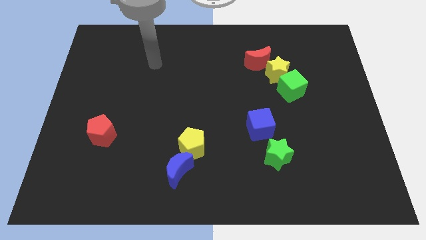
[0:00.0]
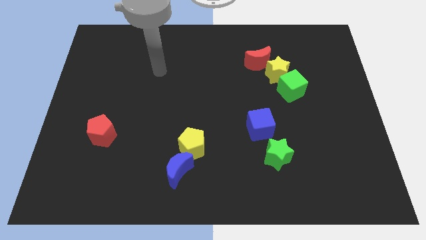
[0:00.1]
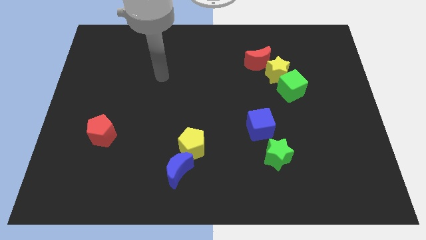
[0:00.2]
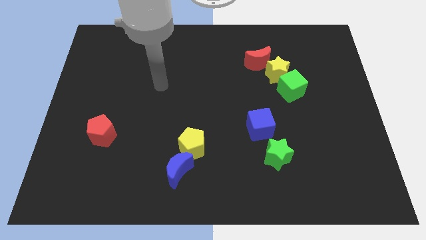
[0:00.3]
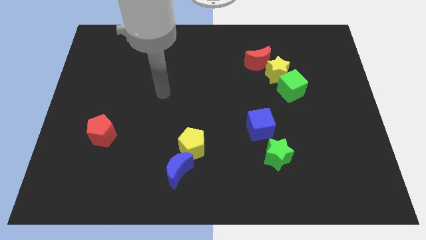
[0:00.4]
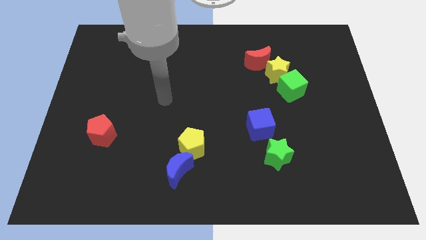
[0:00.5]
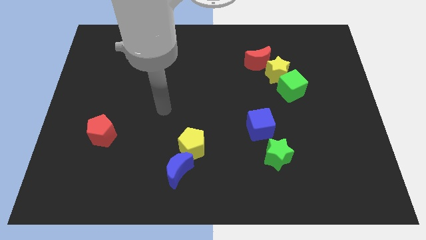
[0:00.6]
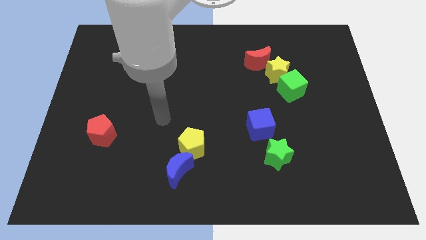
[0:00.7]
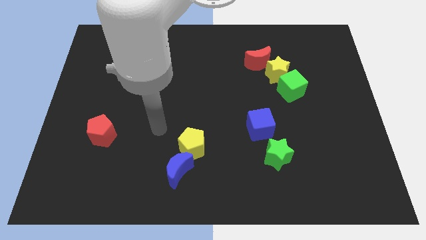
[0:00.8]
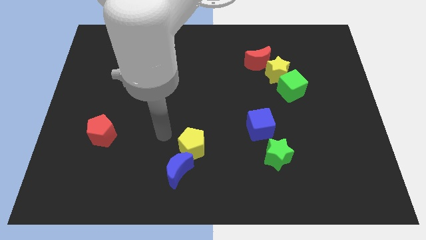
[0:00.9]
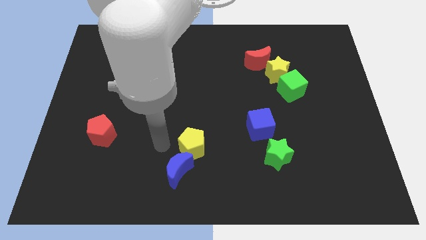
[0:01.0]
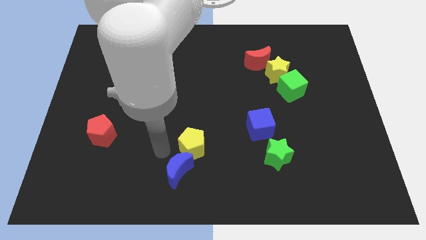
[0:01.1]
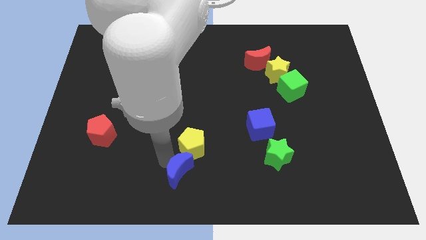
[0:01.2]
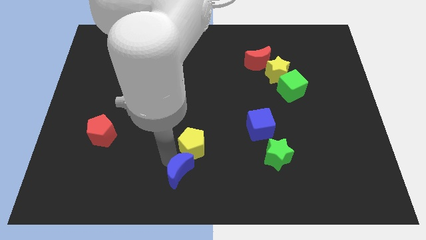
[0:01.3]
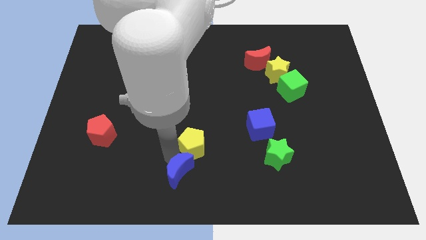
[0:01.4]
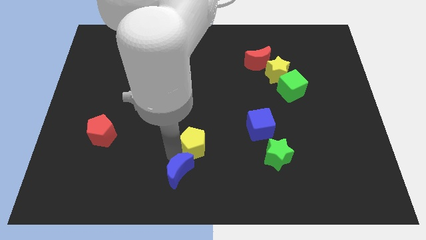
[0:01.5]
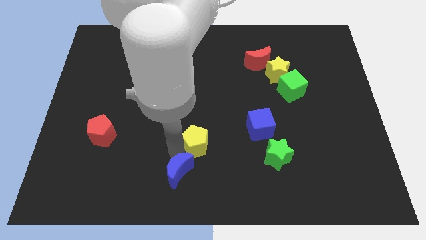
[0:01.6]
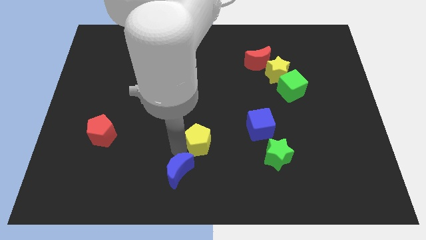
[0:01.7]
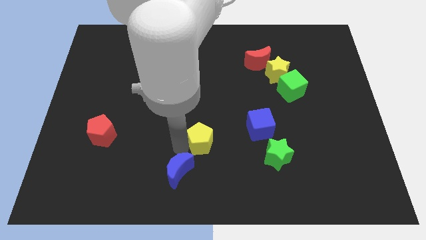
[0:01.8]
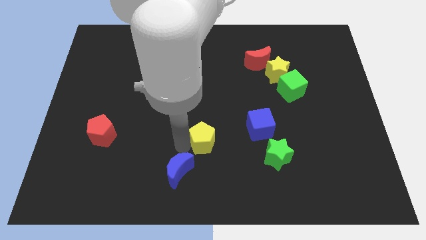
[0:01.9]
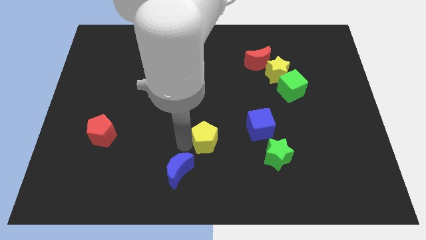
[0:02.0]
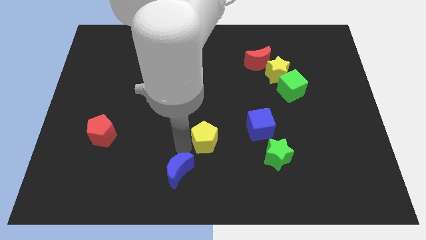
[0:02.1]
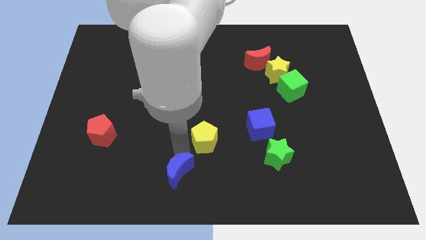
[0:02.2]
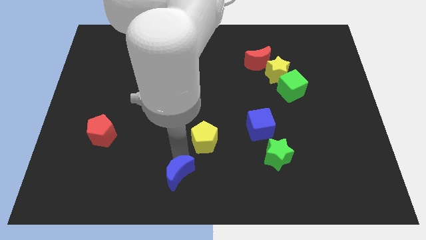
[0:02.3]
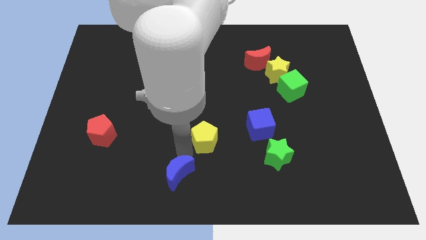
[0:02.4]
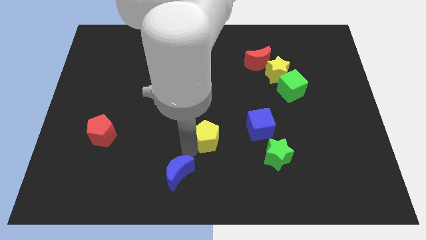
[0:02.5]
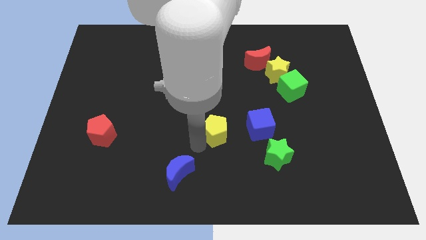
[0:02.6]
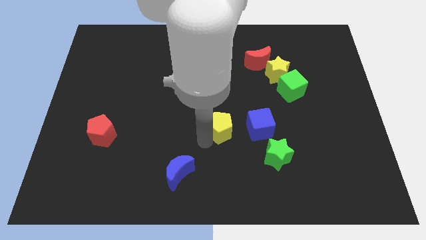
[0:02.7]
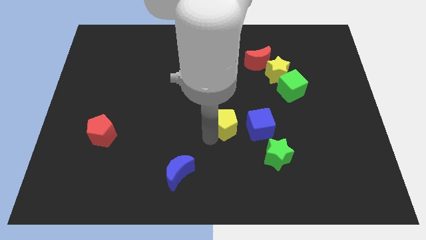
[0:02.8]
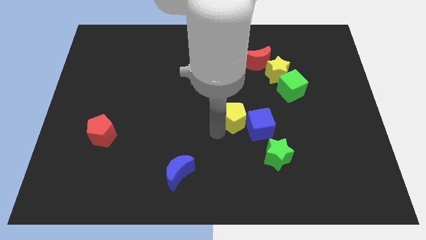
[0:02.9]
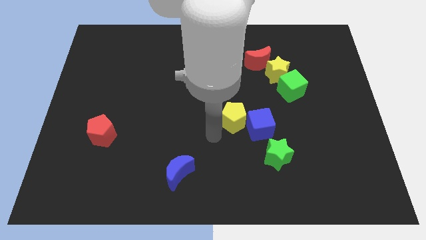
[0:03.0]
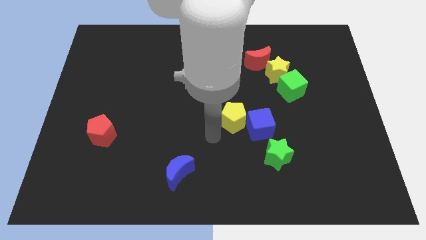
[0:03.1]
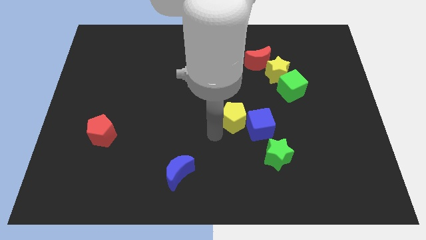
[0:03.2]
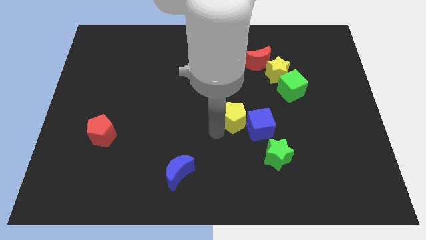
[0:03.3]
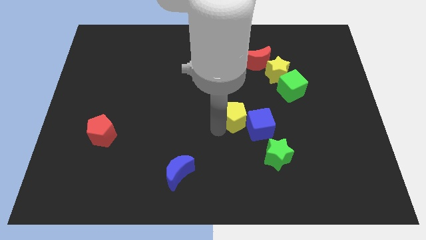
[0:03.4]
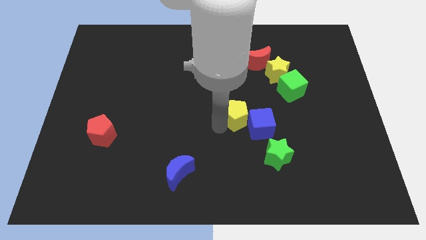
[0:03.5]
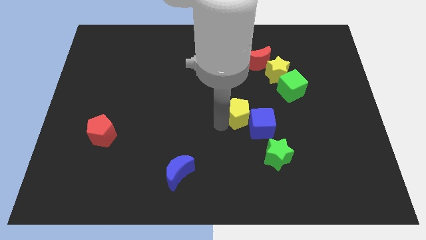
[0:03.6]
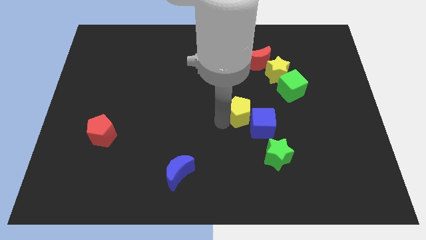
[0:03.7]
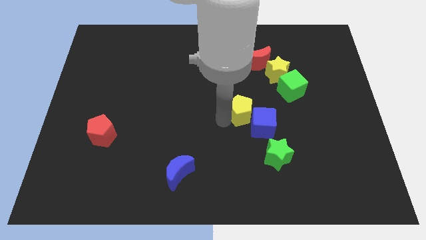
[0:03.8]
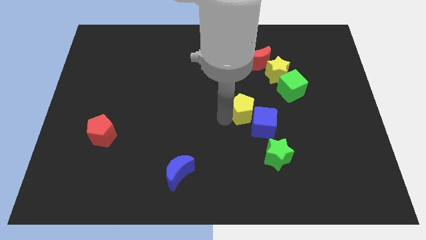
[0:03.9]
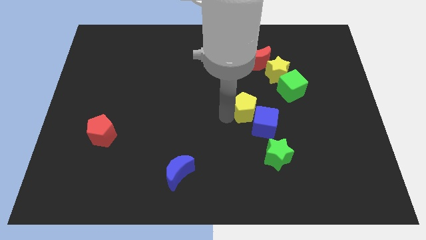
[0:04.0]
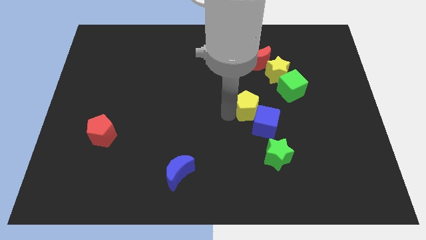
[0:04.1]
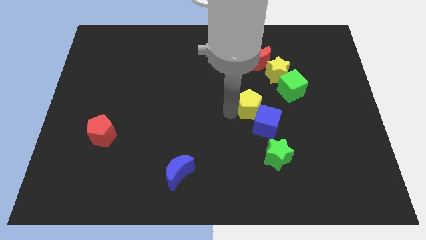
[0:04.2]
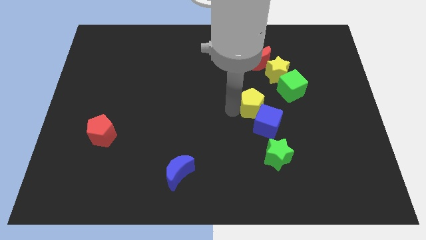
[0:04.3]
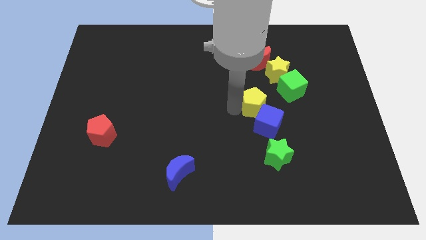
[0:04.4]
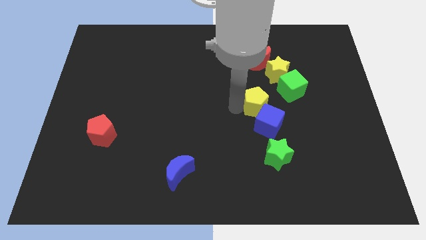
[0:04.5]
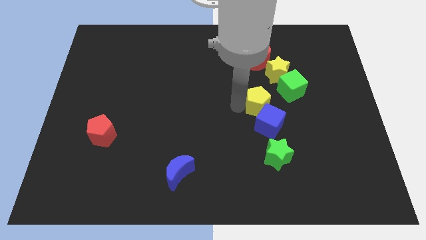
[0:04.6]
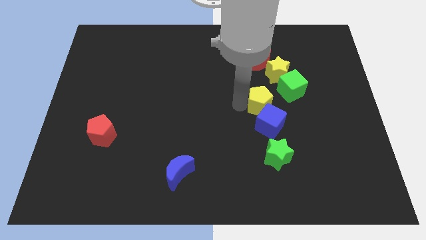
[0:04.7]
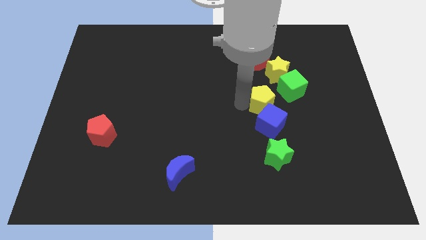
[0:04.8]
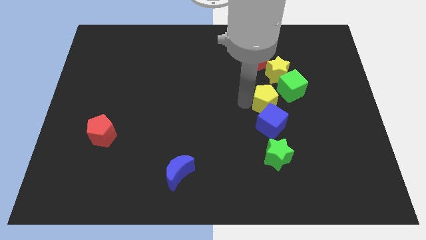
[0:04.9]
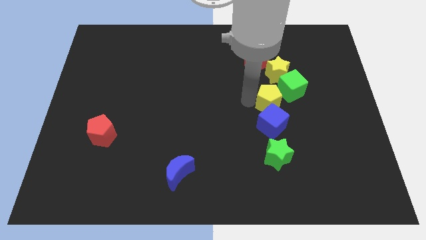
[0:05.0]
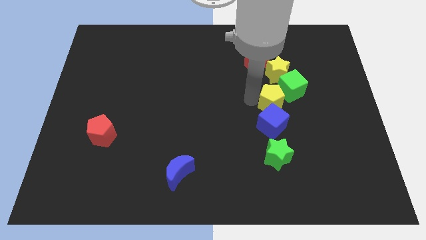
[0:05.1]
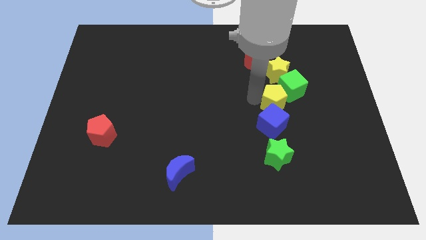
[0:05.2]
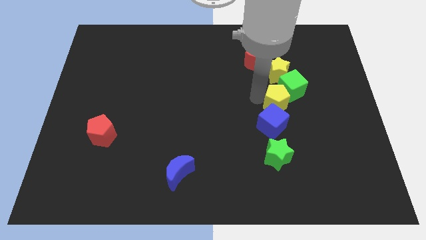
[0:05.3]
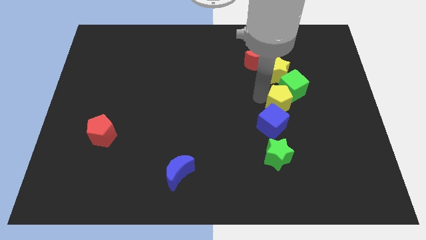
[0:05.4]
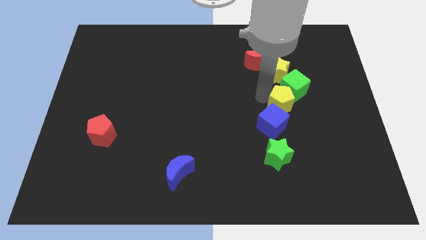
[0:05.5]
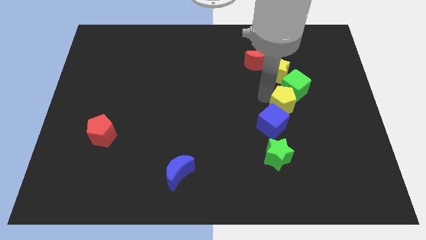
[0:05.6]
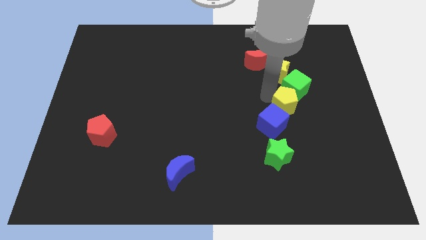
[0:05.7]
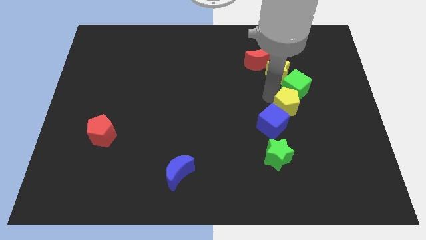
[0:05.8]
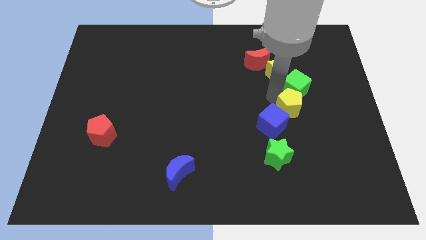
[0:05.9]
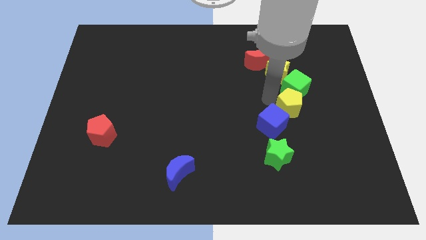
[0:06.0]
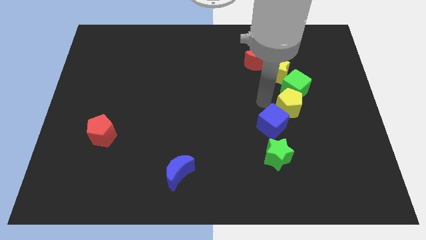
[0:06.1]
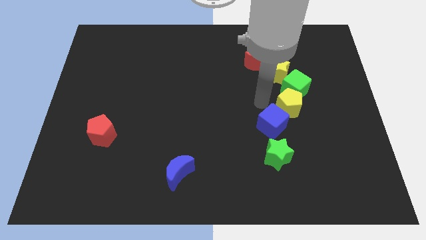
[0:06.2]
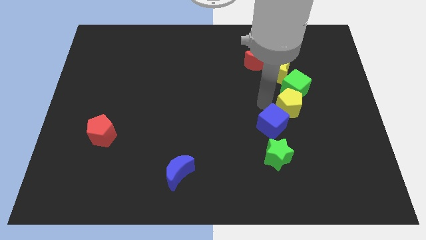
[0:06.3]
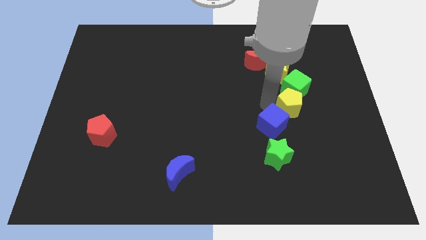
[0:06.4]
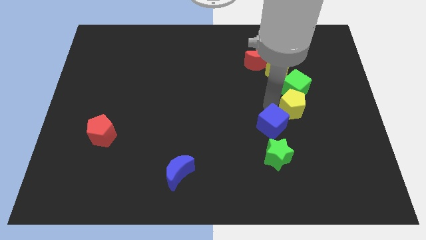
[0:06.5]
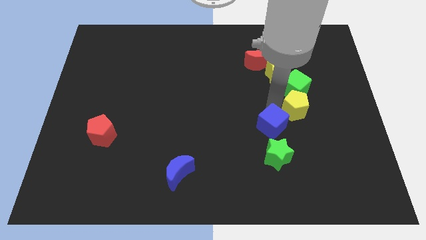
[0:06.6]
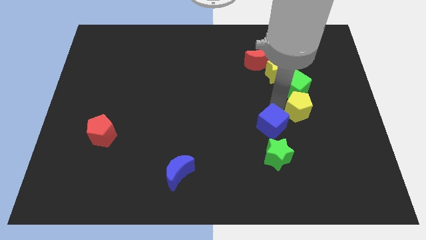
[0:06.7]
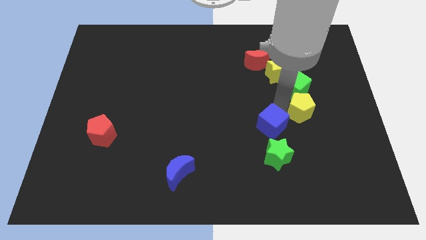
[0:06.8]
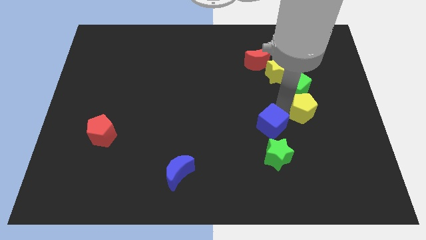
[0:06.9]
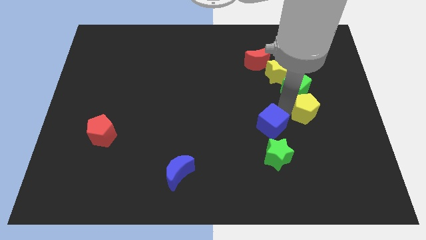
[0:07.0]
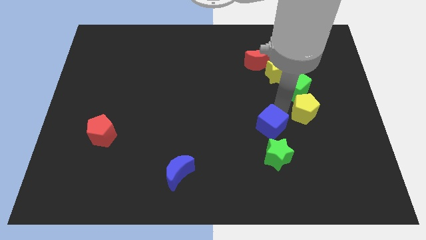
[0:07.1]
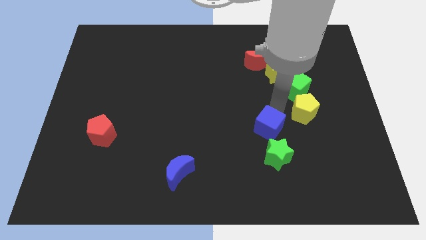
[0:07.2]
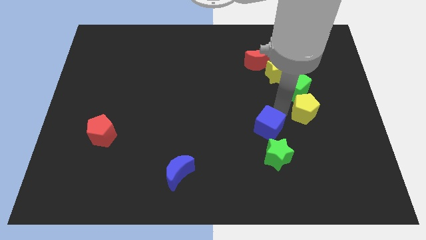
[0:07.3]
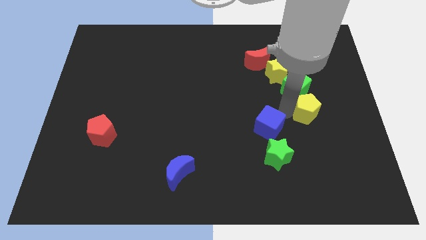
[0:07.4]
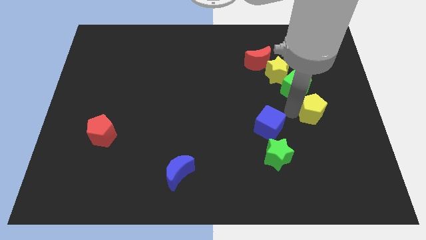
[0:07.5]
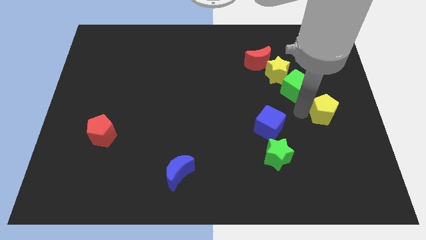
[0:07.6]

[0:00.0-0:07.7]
move the yellow pentagon to the center right
